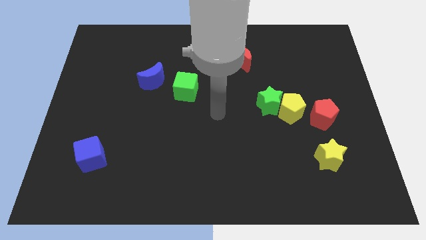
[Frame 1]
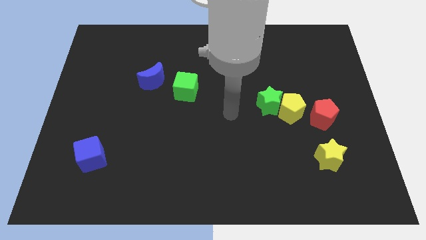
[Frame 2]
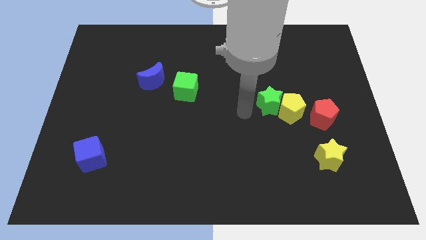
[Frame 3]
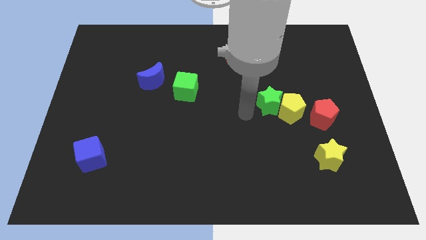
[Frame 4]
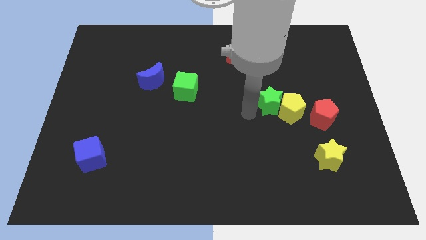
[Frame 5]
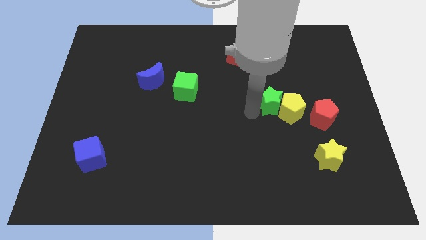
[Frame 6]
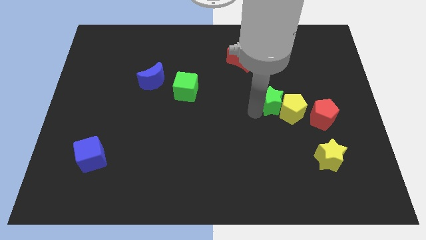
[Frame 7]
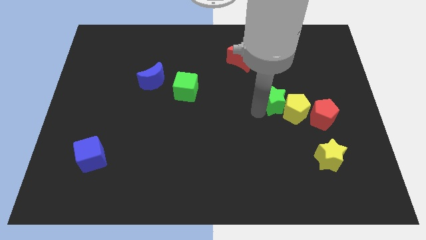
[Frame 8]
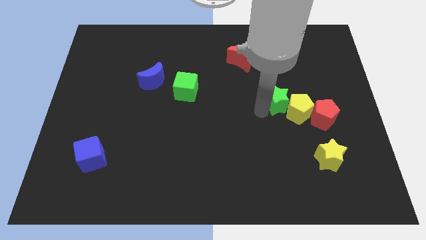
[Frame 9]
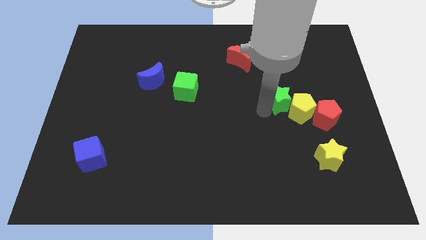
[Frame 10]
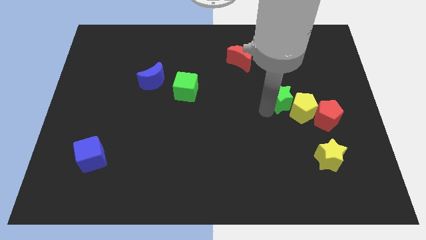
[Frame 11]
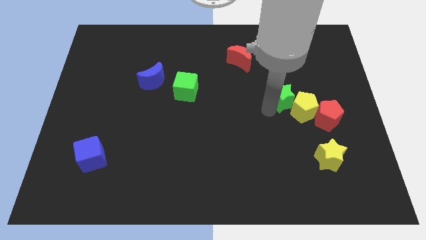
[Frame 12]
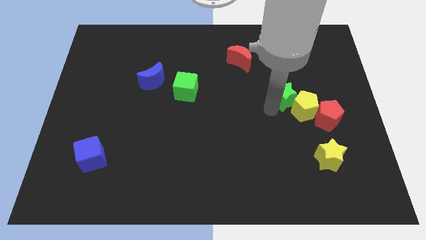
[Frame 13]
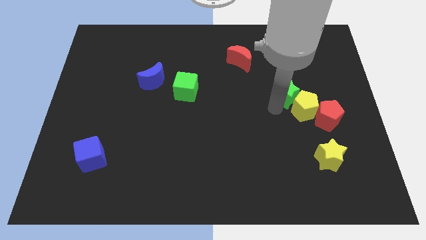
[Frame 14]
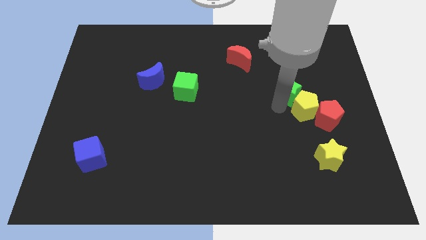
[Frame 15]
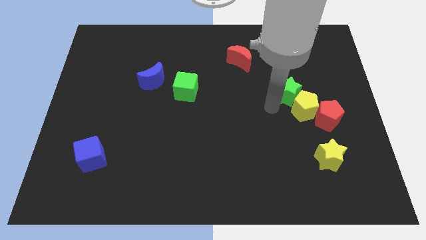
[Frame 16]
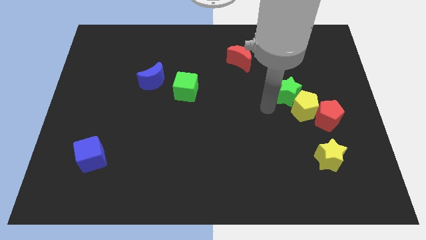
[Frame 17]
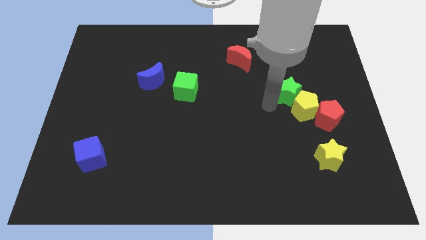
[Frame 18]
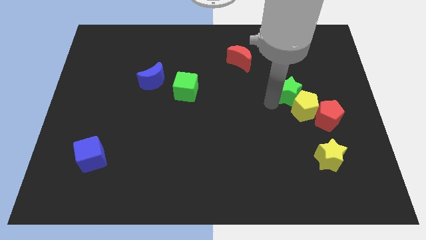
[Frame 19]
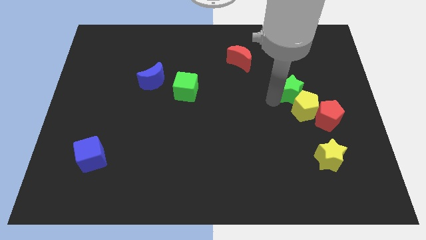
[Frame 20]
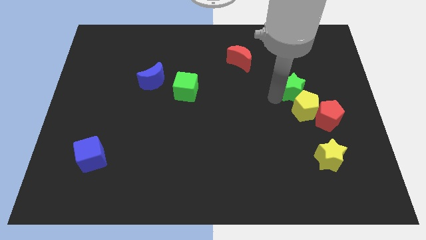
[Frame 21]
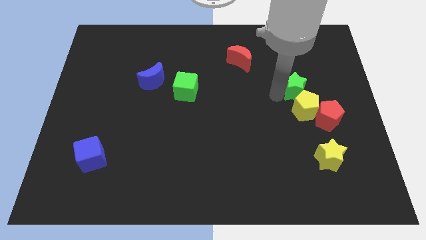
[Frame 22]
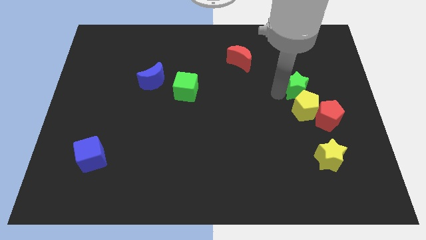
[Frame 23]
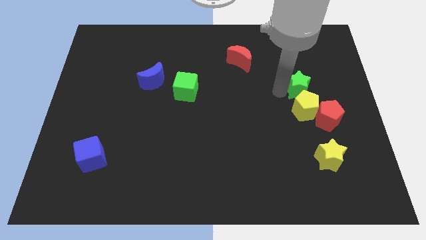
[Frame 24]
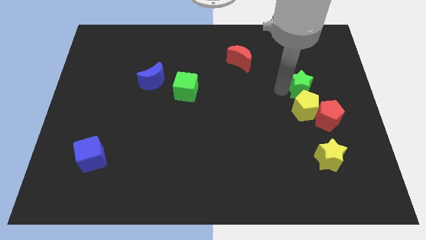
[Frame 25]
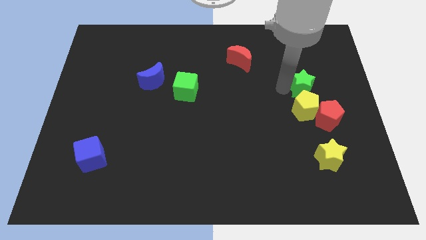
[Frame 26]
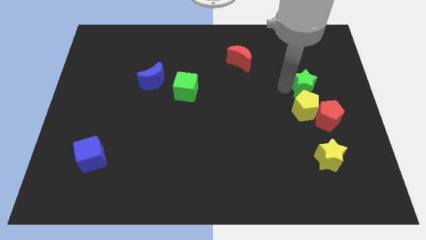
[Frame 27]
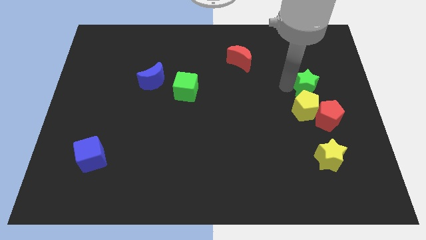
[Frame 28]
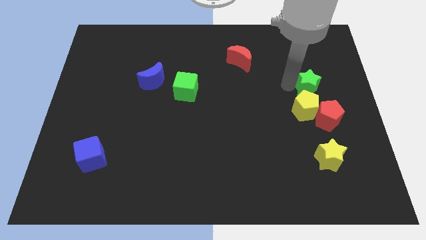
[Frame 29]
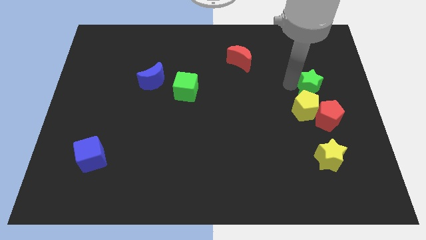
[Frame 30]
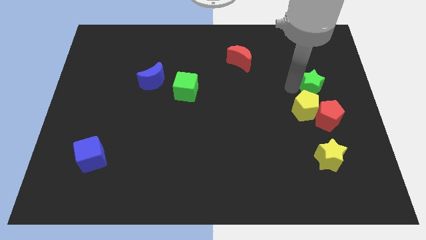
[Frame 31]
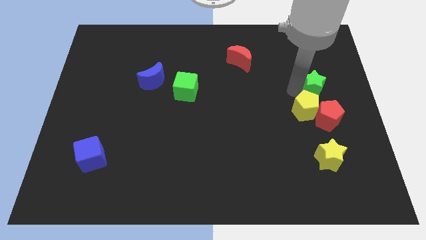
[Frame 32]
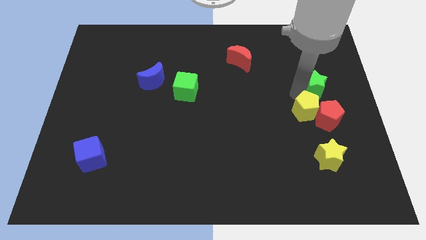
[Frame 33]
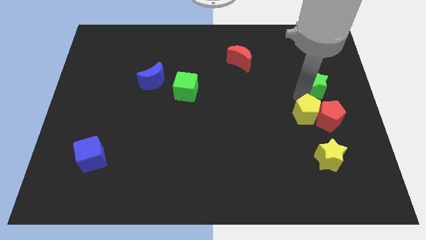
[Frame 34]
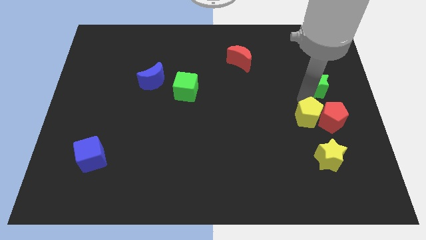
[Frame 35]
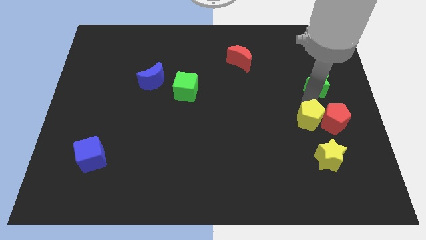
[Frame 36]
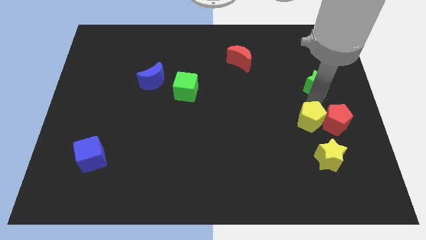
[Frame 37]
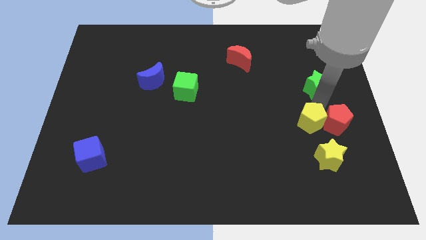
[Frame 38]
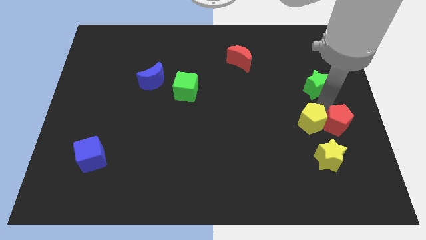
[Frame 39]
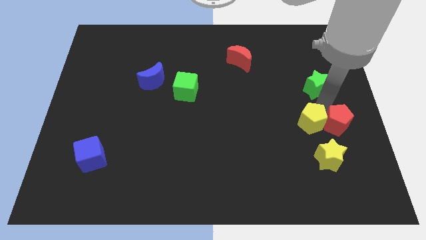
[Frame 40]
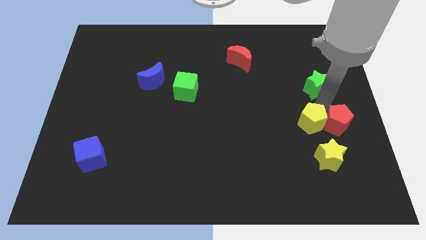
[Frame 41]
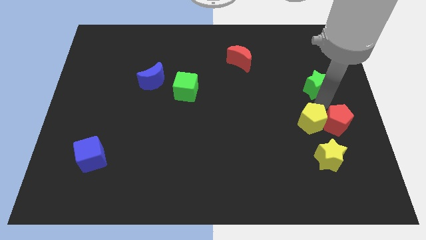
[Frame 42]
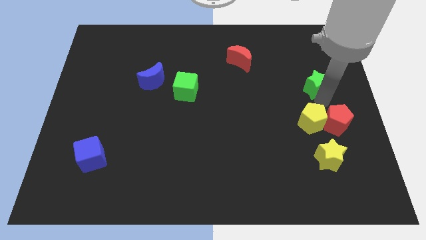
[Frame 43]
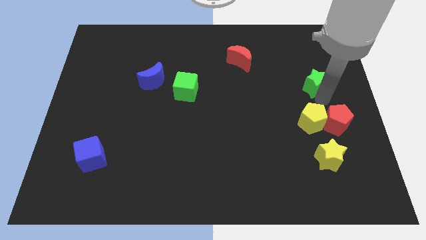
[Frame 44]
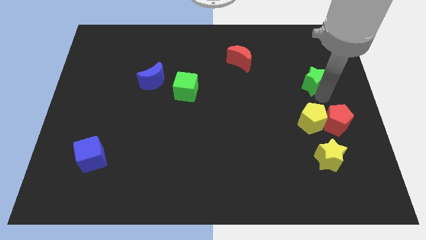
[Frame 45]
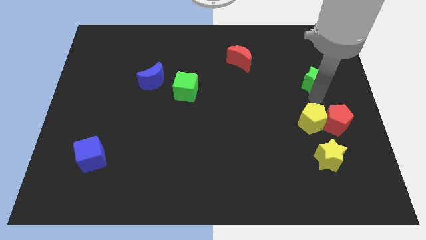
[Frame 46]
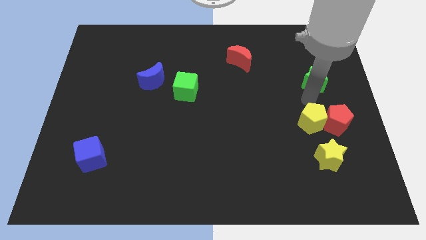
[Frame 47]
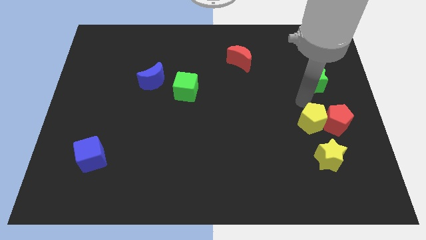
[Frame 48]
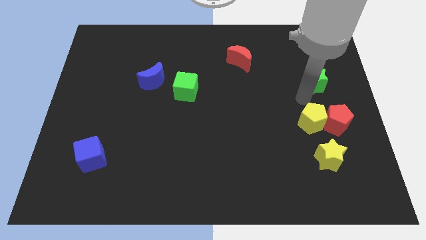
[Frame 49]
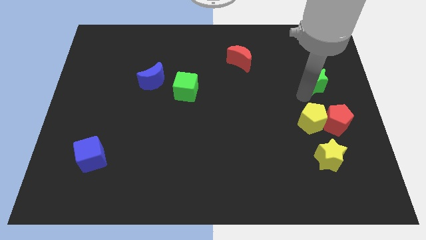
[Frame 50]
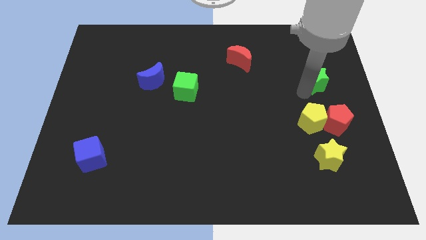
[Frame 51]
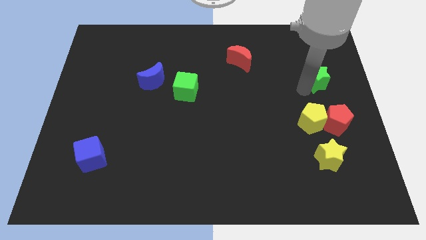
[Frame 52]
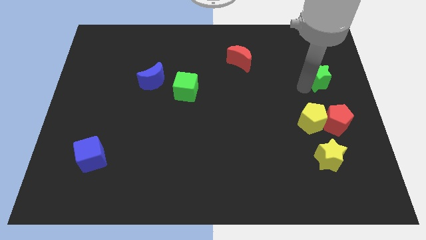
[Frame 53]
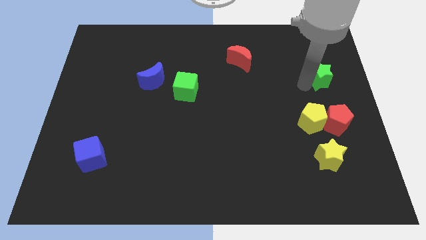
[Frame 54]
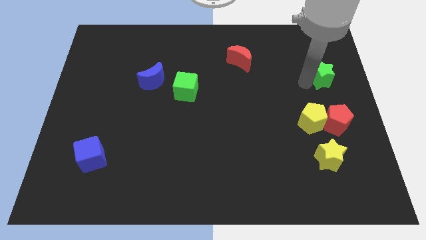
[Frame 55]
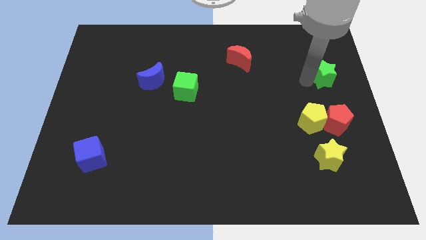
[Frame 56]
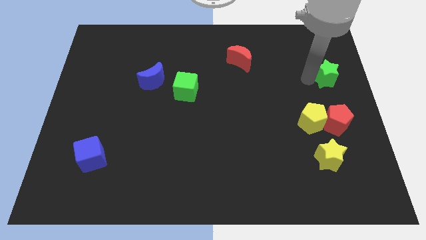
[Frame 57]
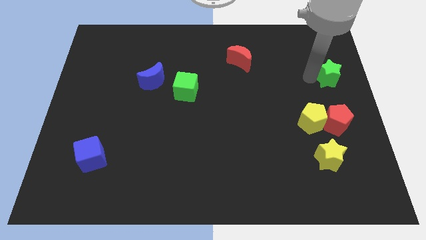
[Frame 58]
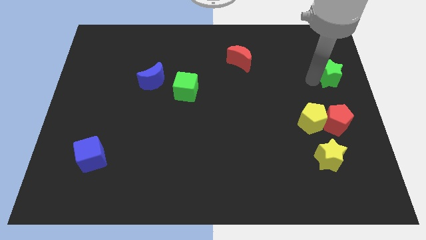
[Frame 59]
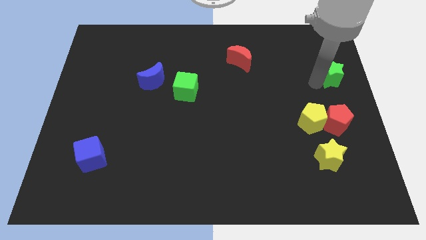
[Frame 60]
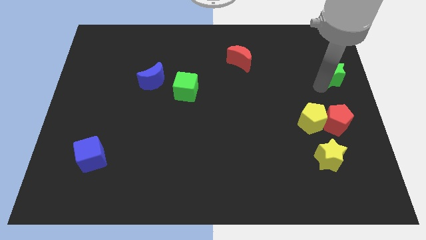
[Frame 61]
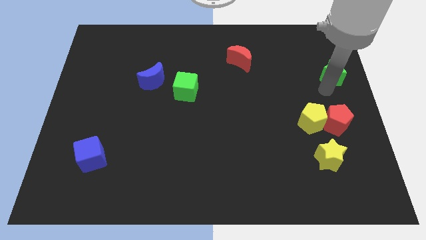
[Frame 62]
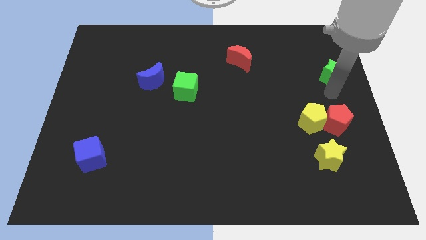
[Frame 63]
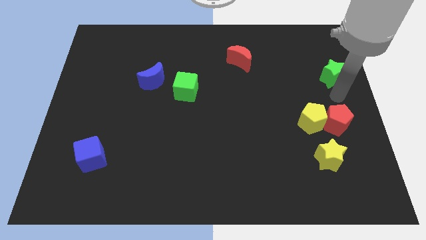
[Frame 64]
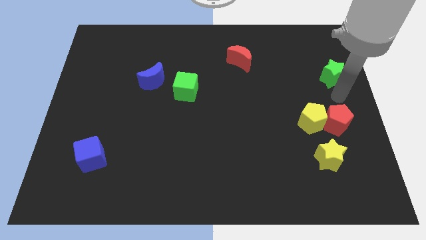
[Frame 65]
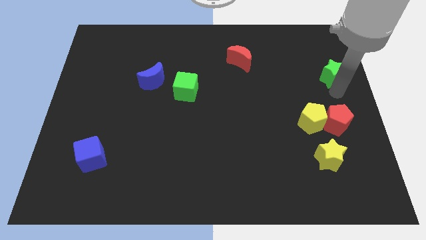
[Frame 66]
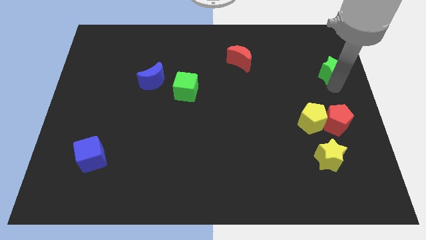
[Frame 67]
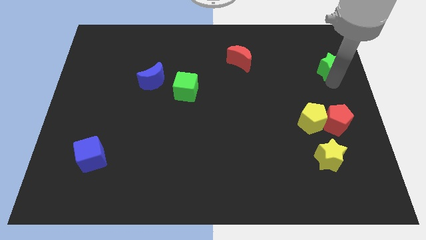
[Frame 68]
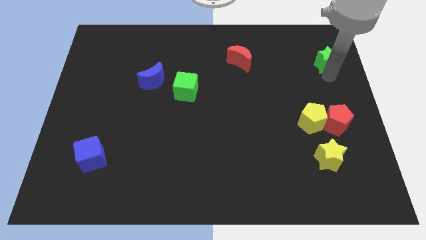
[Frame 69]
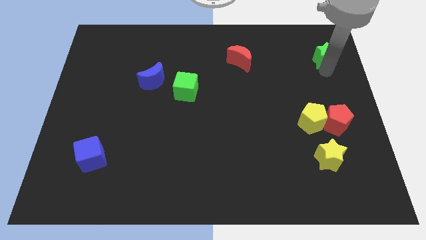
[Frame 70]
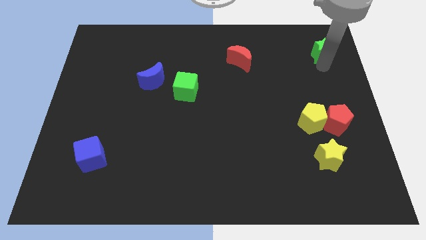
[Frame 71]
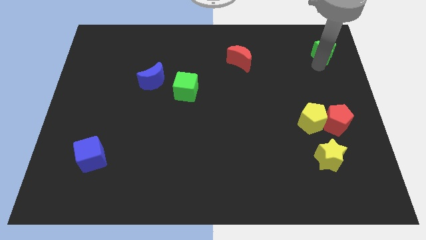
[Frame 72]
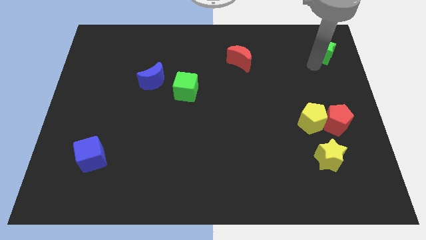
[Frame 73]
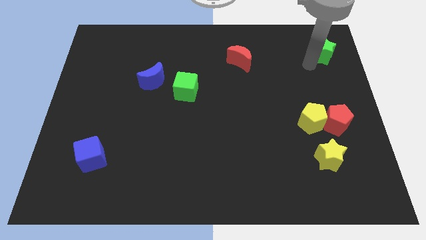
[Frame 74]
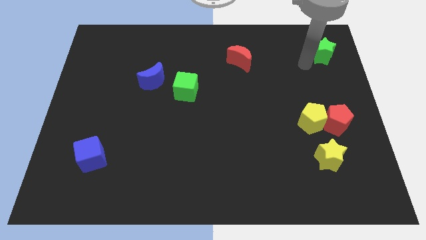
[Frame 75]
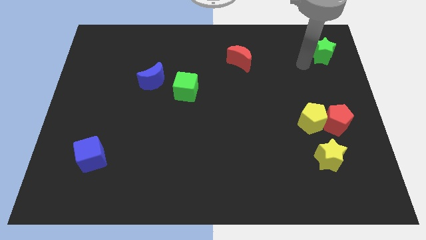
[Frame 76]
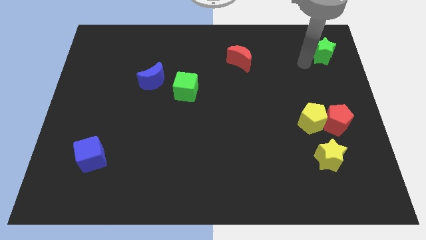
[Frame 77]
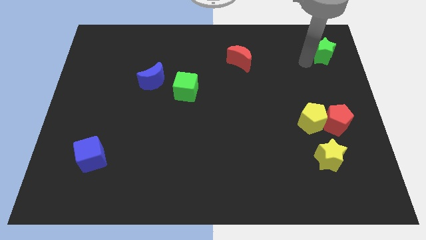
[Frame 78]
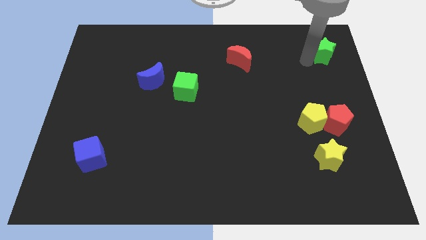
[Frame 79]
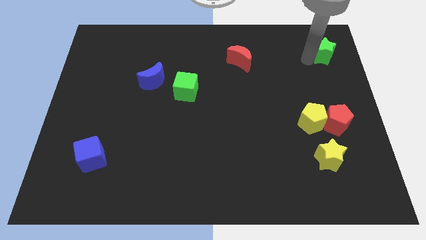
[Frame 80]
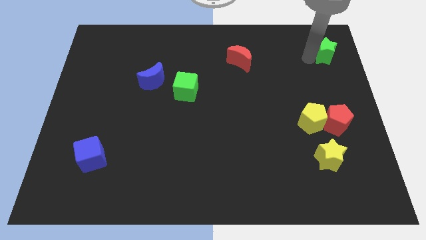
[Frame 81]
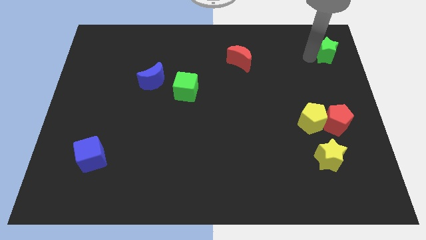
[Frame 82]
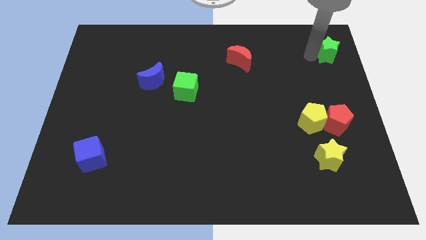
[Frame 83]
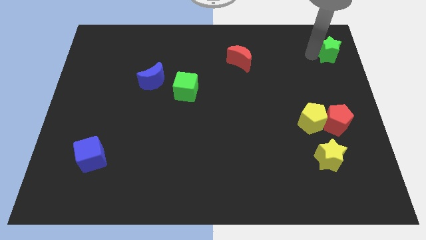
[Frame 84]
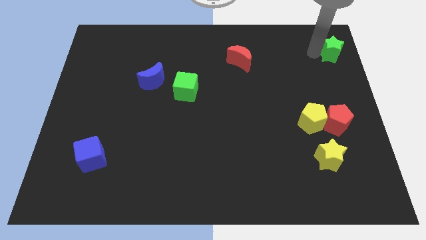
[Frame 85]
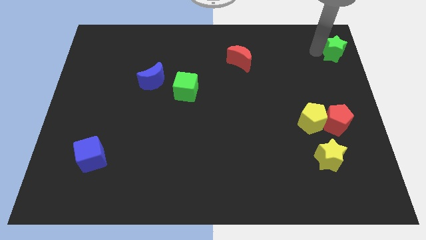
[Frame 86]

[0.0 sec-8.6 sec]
slide the green star to the upper right corner
